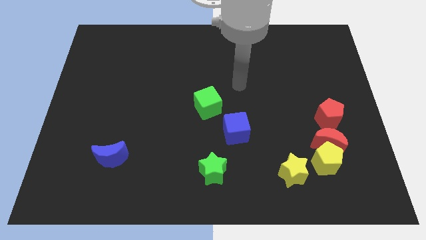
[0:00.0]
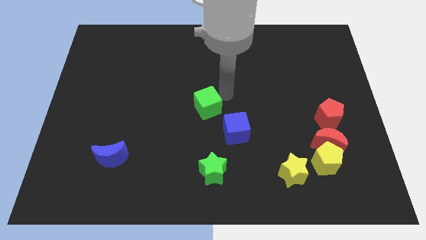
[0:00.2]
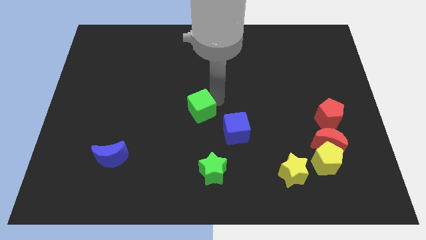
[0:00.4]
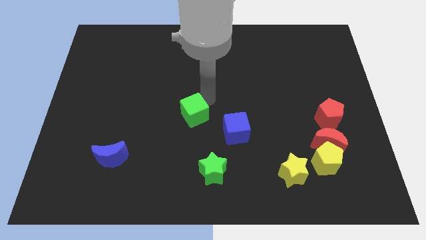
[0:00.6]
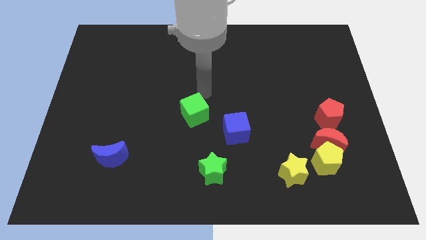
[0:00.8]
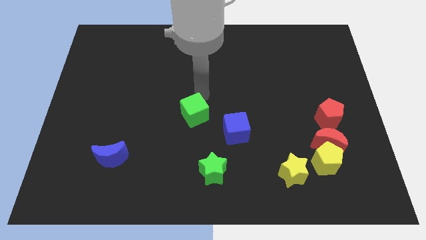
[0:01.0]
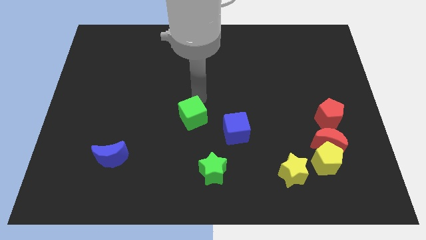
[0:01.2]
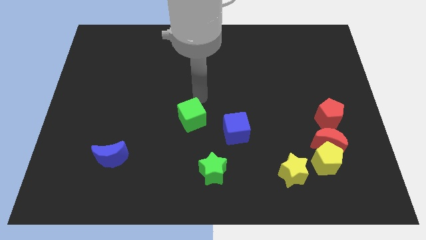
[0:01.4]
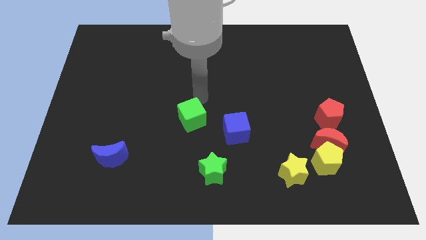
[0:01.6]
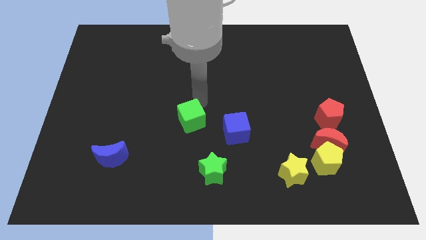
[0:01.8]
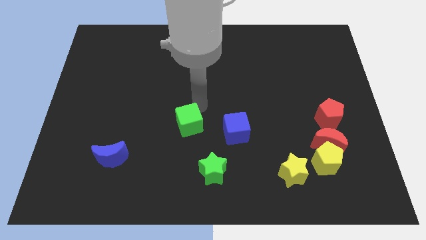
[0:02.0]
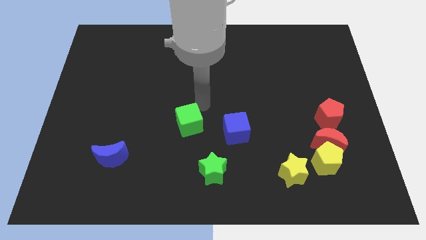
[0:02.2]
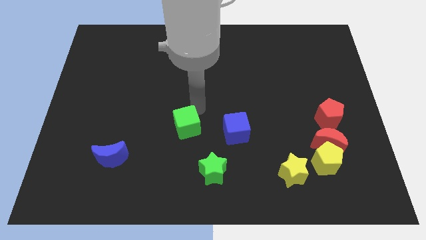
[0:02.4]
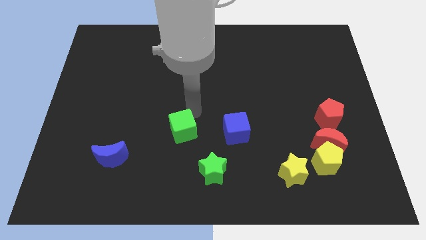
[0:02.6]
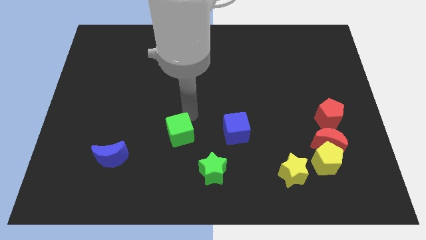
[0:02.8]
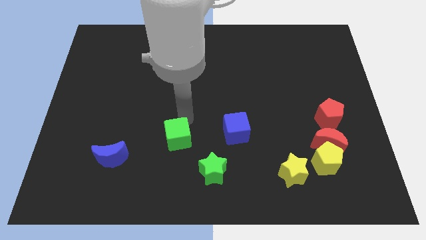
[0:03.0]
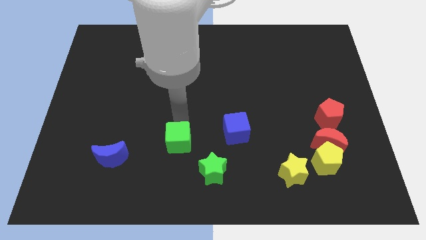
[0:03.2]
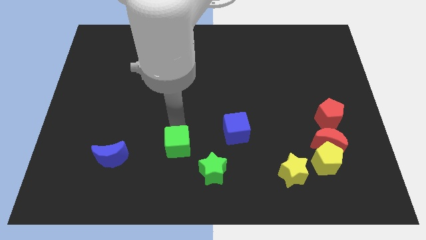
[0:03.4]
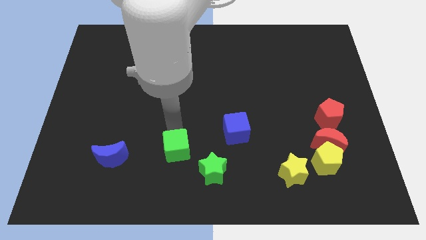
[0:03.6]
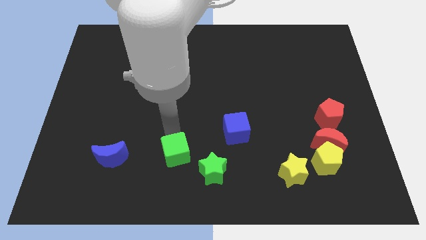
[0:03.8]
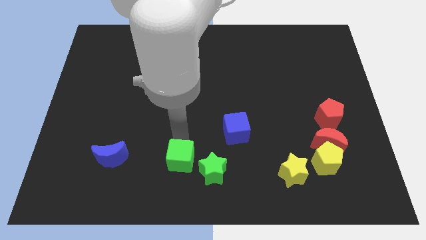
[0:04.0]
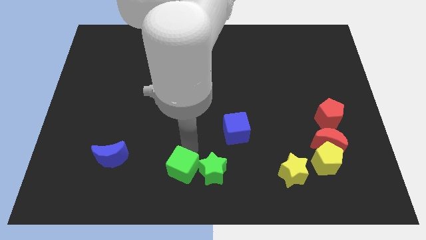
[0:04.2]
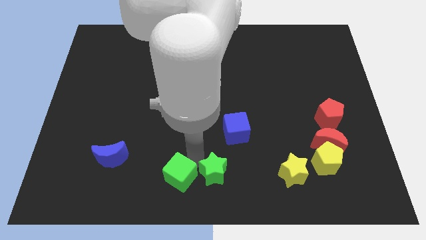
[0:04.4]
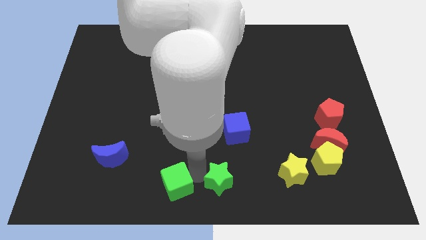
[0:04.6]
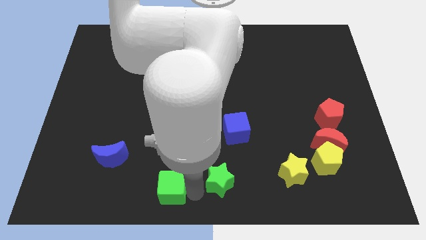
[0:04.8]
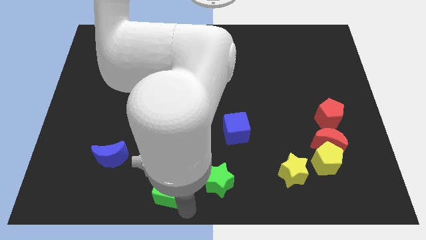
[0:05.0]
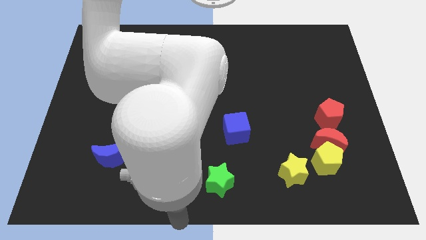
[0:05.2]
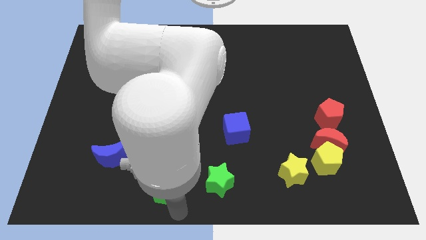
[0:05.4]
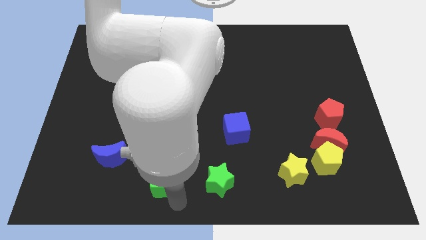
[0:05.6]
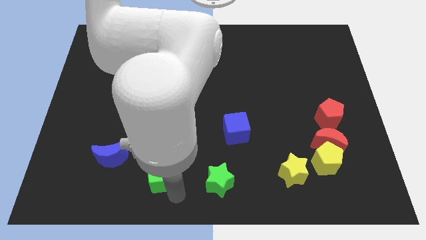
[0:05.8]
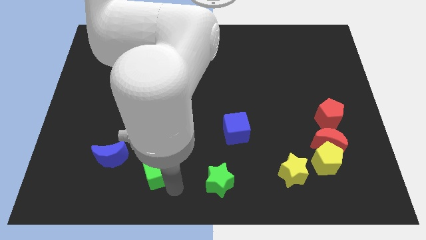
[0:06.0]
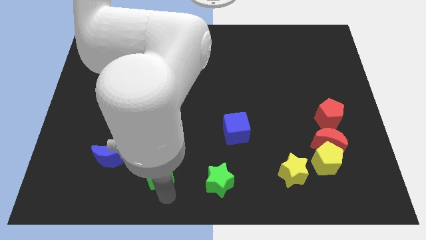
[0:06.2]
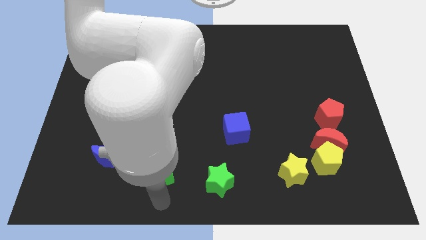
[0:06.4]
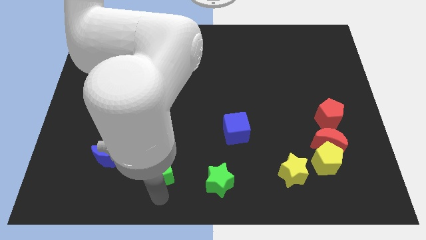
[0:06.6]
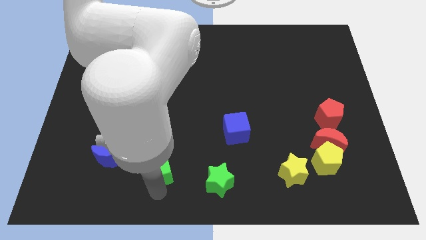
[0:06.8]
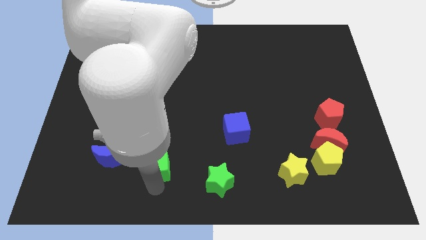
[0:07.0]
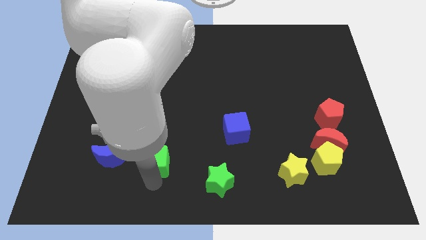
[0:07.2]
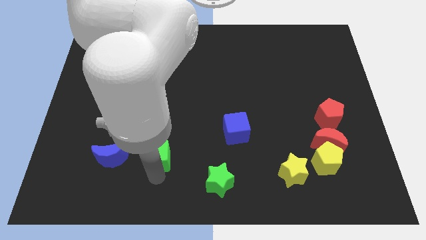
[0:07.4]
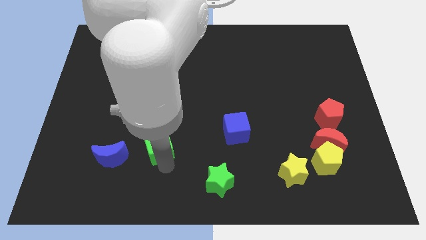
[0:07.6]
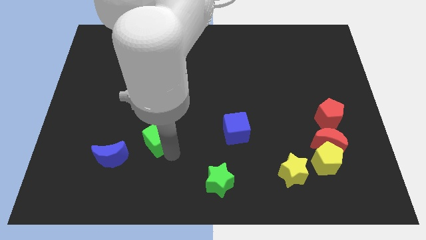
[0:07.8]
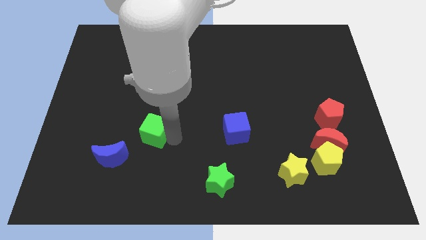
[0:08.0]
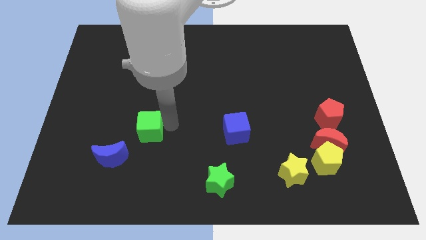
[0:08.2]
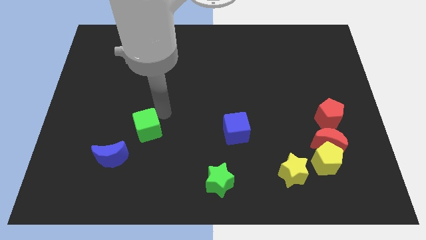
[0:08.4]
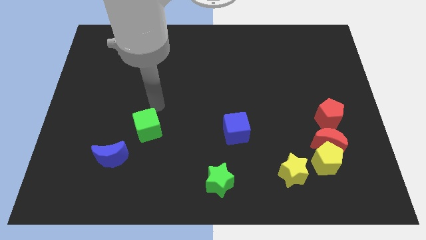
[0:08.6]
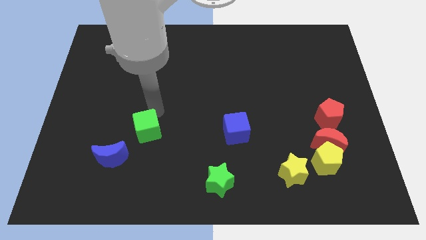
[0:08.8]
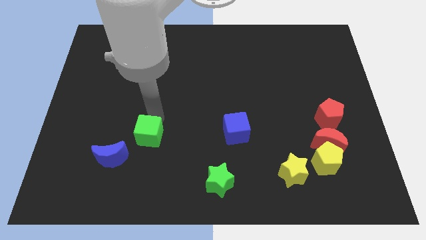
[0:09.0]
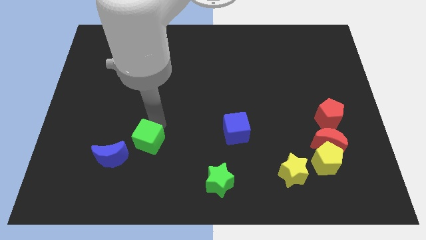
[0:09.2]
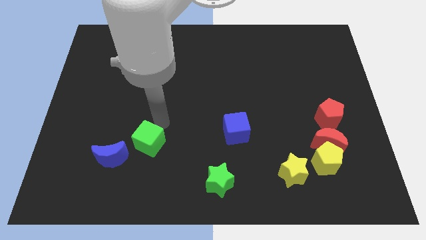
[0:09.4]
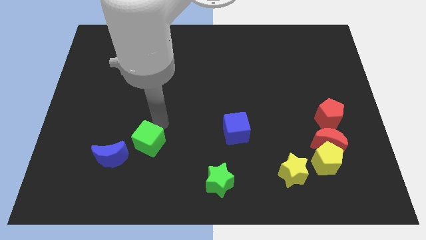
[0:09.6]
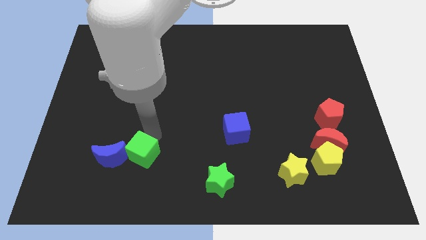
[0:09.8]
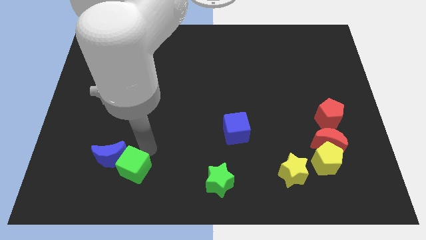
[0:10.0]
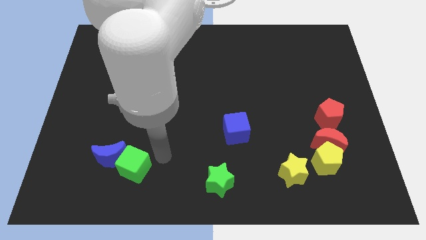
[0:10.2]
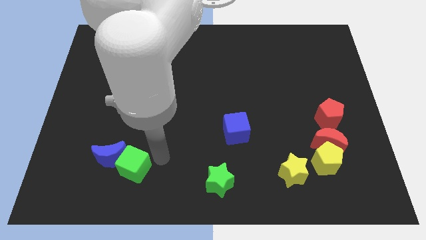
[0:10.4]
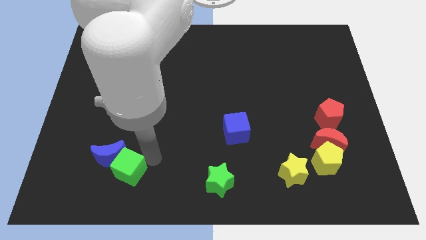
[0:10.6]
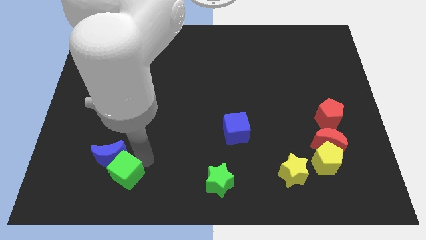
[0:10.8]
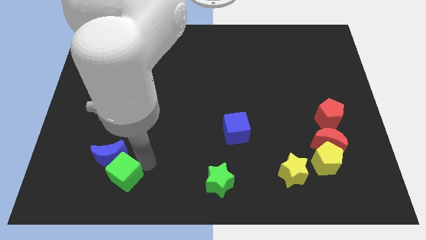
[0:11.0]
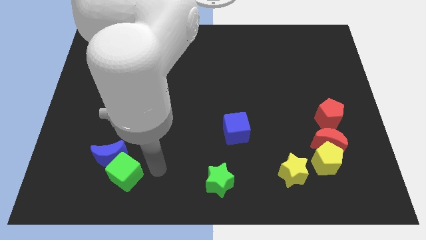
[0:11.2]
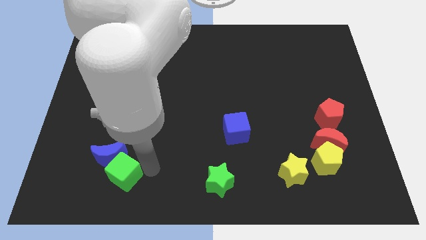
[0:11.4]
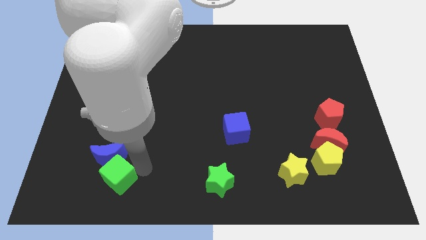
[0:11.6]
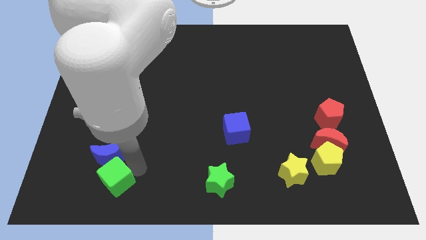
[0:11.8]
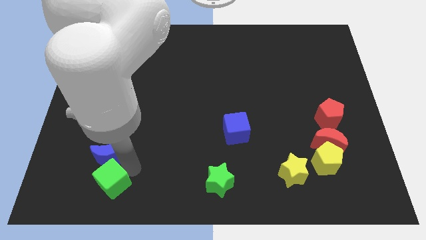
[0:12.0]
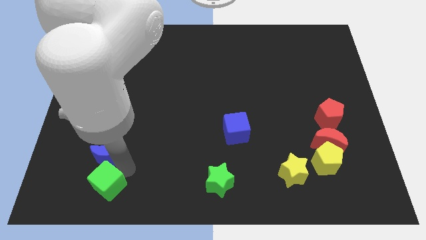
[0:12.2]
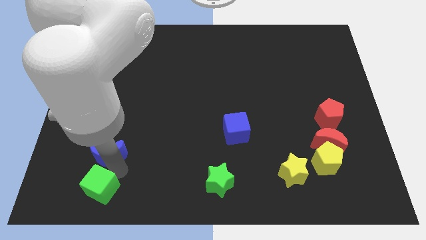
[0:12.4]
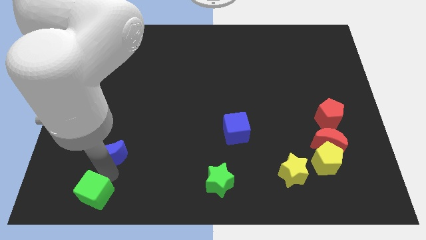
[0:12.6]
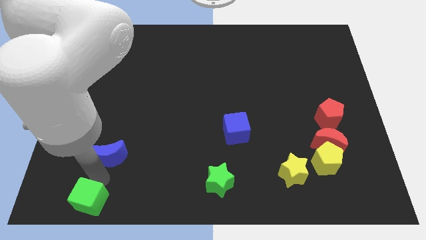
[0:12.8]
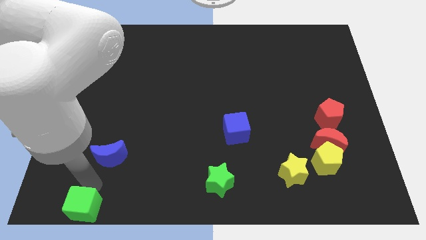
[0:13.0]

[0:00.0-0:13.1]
move the green cube to the bottom left of the board
